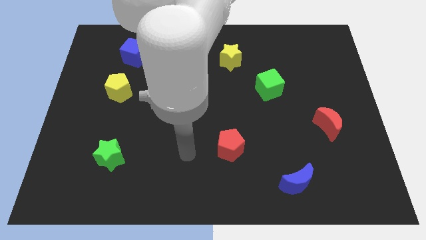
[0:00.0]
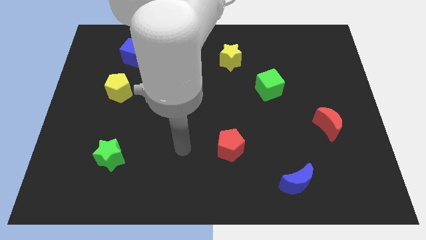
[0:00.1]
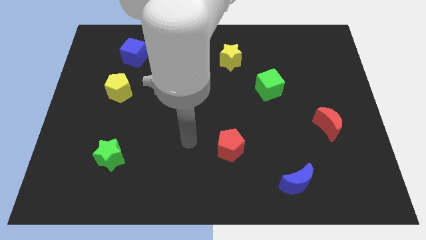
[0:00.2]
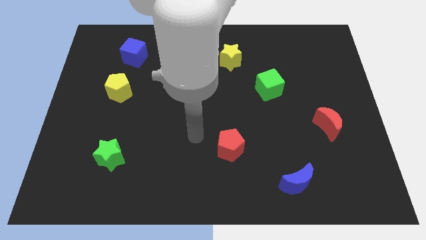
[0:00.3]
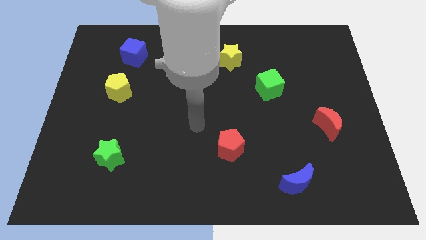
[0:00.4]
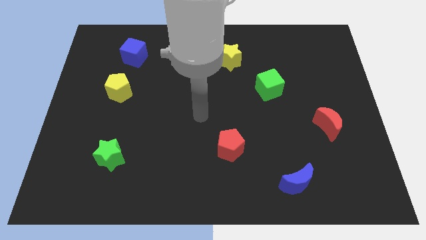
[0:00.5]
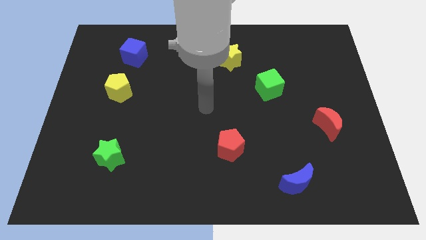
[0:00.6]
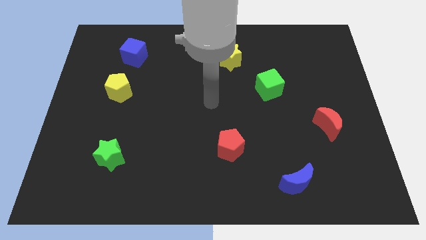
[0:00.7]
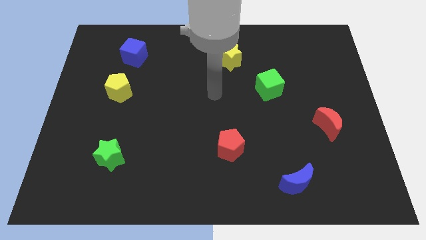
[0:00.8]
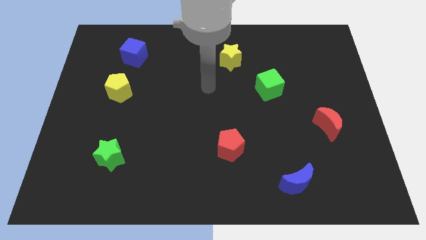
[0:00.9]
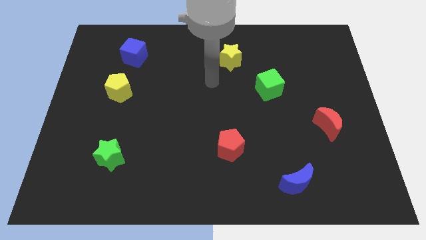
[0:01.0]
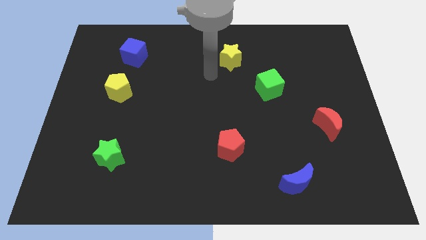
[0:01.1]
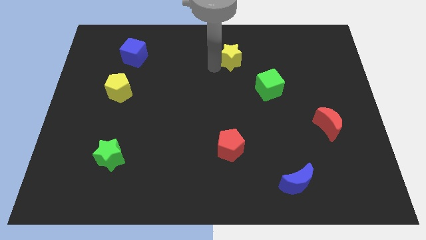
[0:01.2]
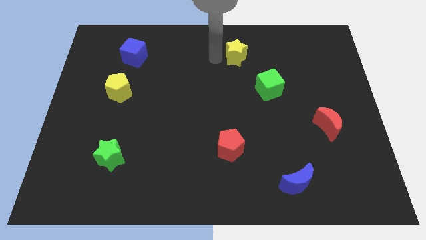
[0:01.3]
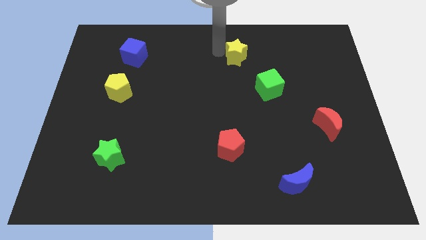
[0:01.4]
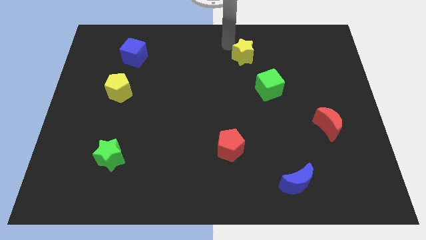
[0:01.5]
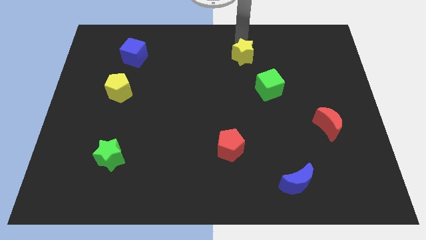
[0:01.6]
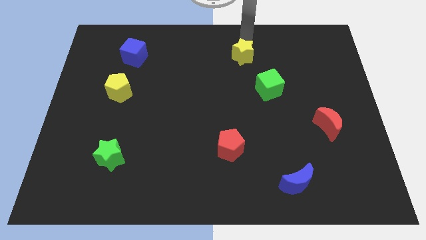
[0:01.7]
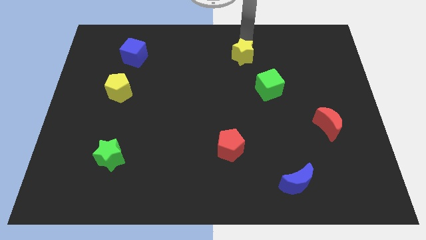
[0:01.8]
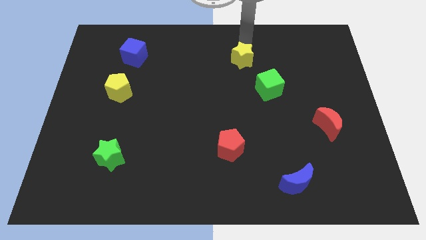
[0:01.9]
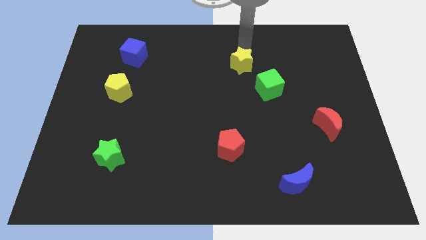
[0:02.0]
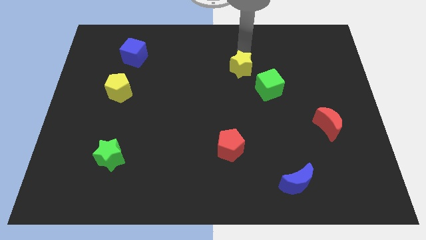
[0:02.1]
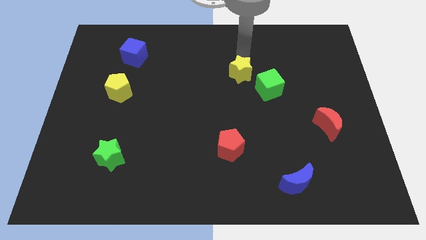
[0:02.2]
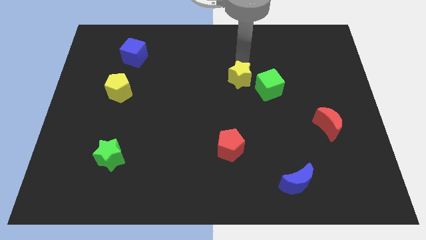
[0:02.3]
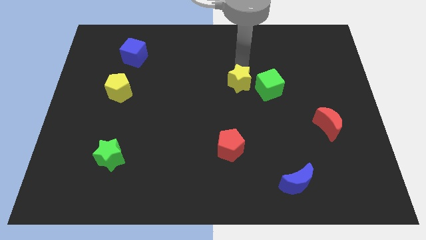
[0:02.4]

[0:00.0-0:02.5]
slide the yellow star down a little

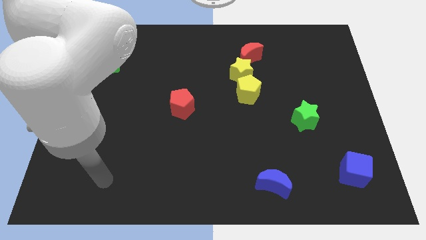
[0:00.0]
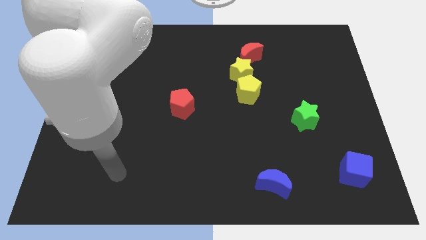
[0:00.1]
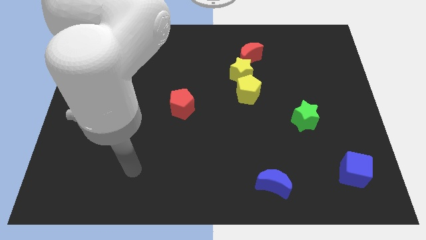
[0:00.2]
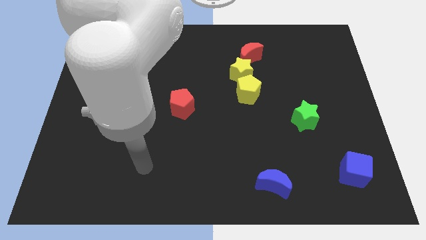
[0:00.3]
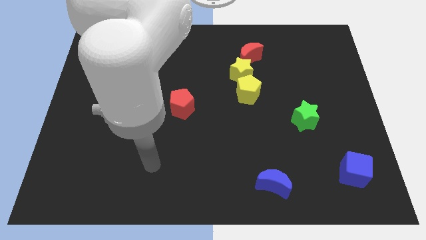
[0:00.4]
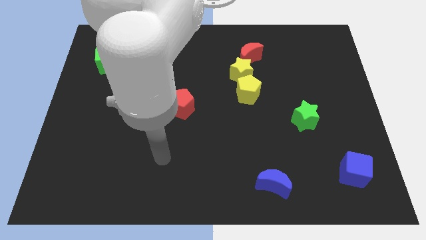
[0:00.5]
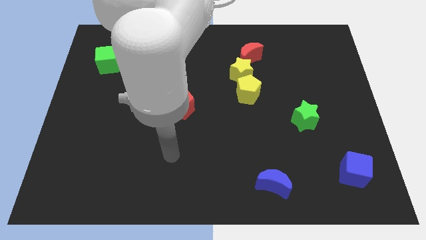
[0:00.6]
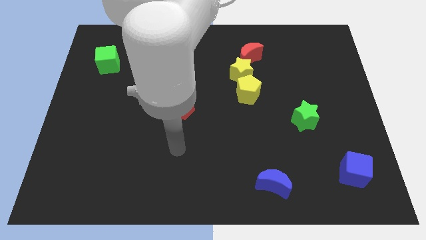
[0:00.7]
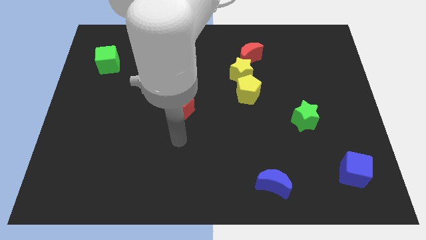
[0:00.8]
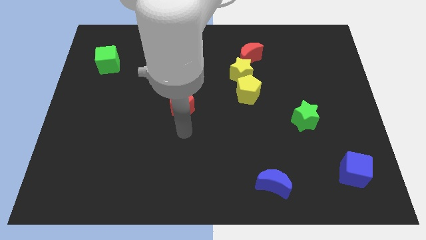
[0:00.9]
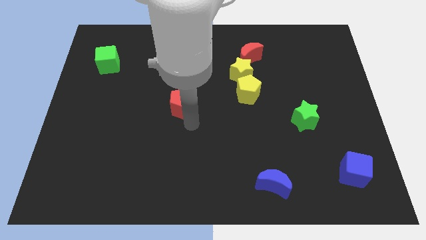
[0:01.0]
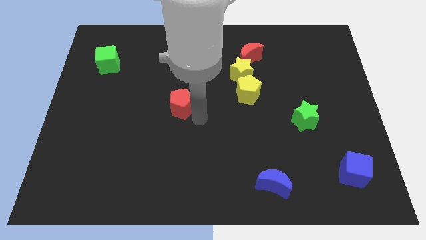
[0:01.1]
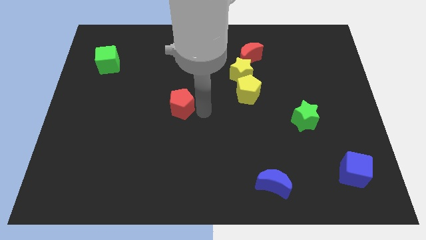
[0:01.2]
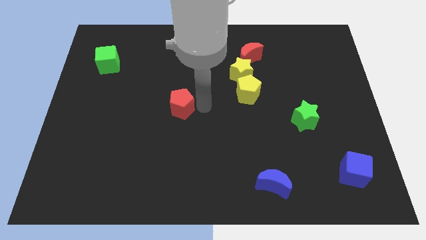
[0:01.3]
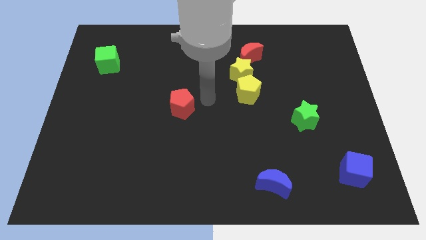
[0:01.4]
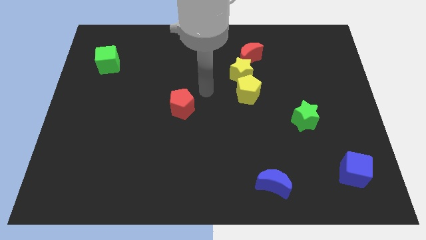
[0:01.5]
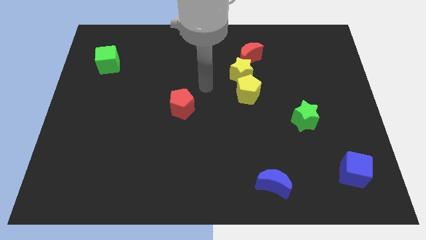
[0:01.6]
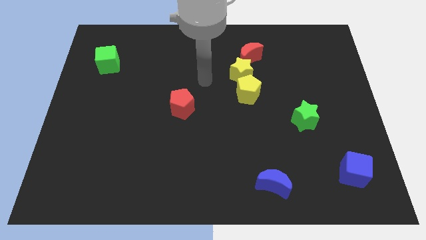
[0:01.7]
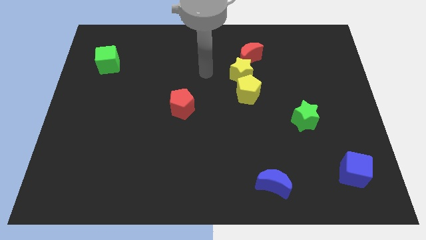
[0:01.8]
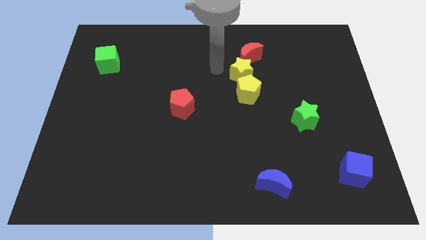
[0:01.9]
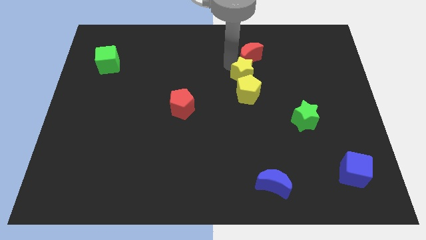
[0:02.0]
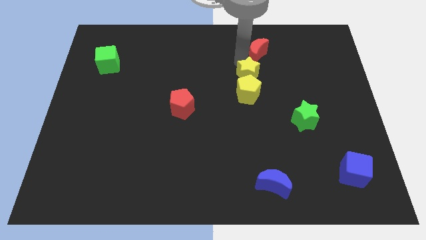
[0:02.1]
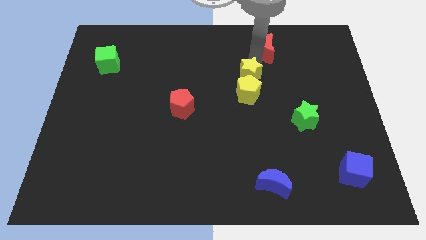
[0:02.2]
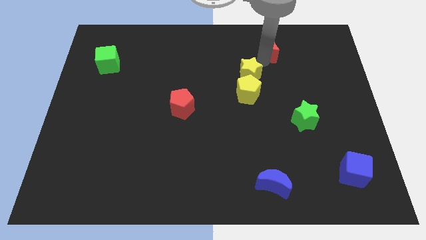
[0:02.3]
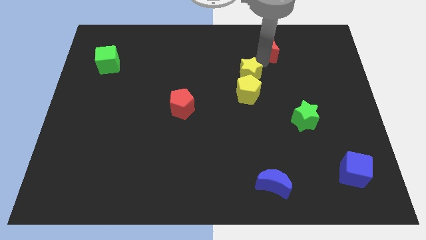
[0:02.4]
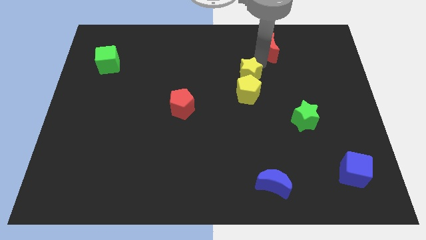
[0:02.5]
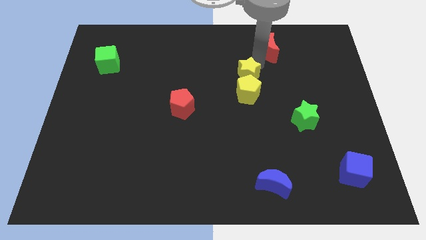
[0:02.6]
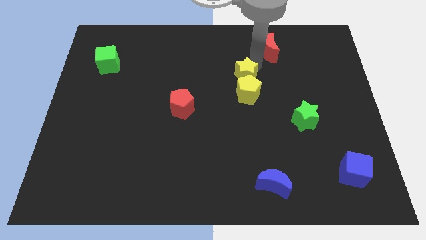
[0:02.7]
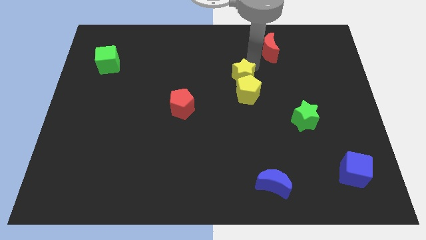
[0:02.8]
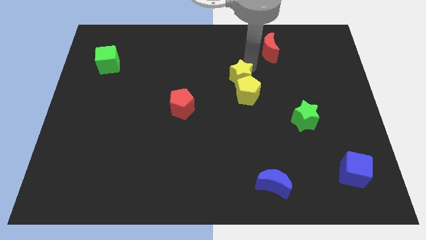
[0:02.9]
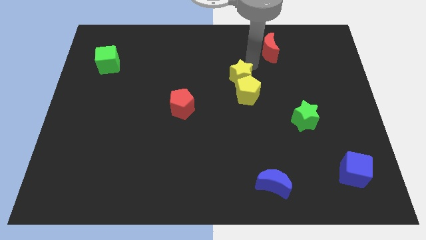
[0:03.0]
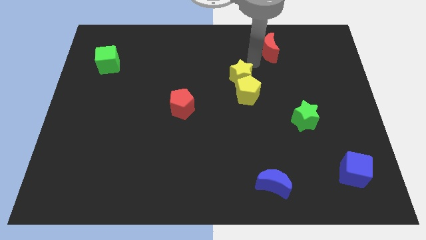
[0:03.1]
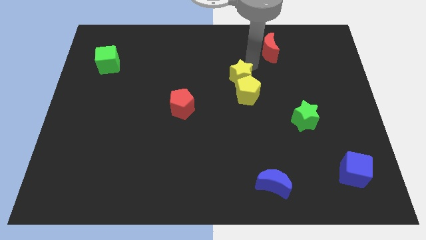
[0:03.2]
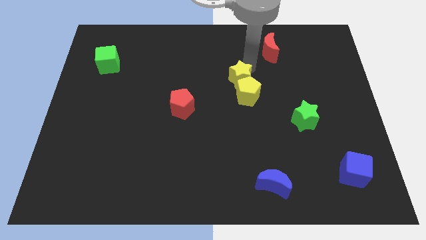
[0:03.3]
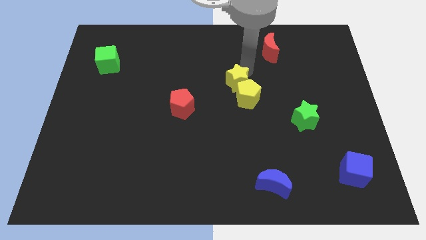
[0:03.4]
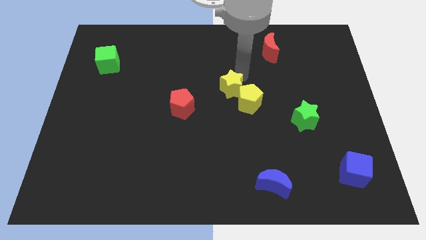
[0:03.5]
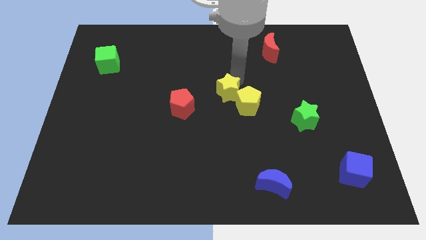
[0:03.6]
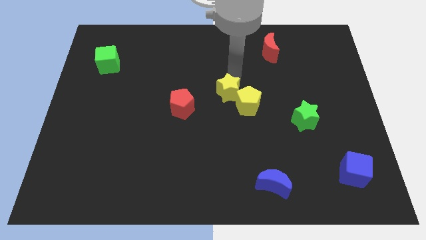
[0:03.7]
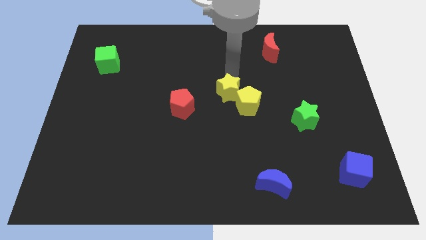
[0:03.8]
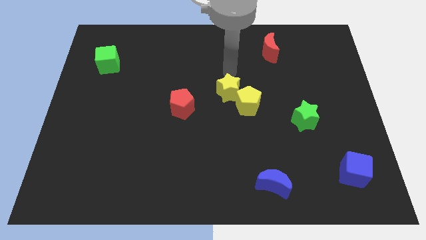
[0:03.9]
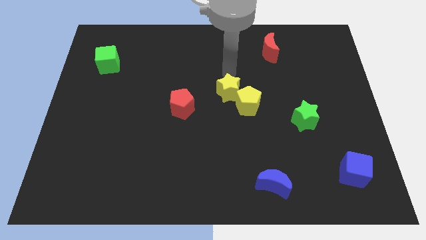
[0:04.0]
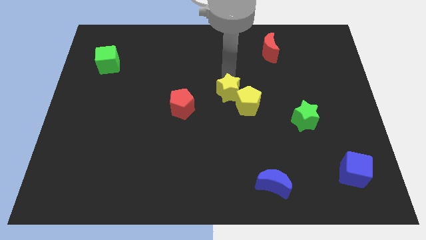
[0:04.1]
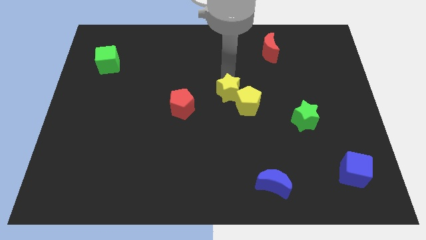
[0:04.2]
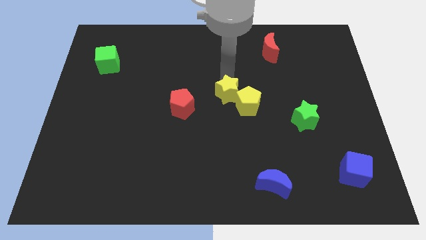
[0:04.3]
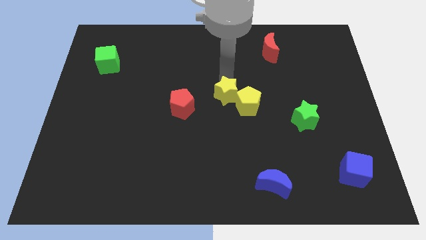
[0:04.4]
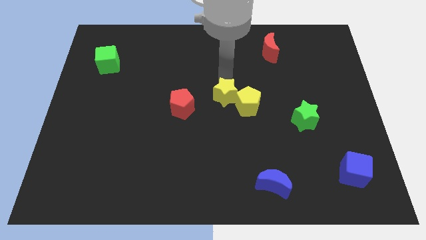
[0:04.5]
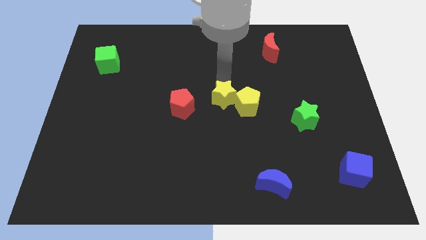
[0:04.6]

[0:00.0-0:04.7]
slide the yellow star downwards somewhat

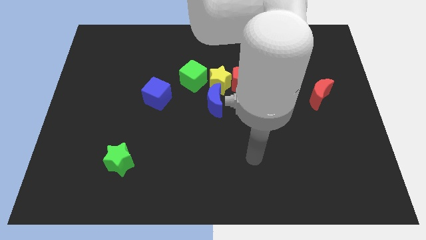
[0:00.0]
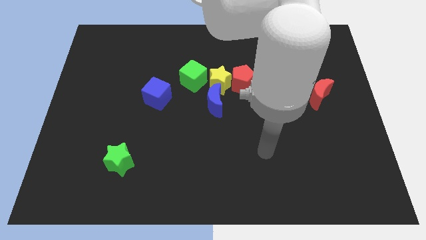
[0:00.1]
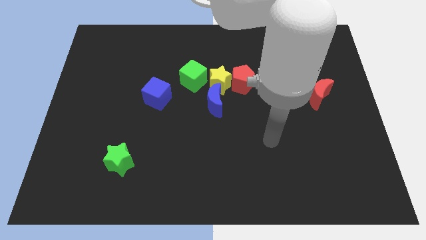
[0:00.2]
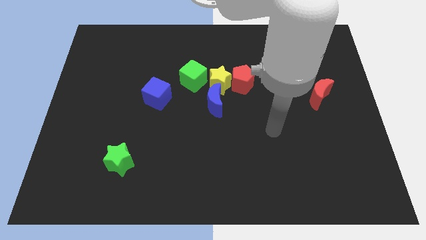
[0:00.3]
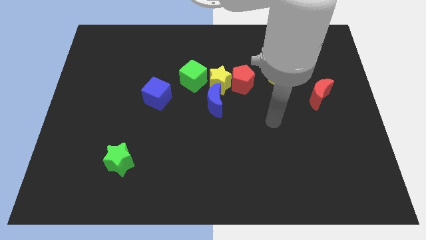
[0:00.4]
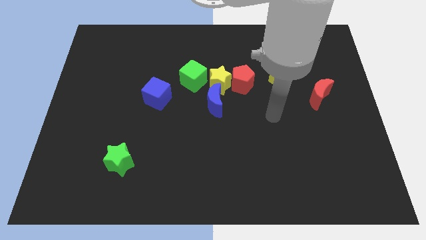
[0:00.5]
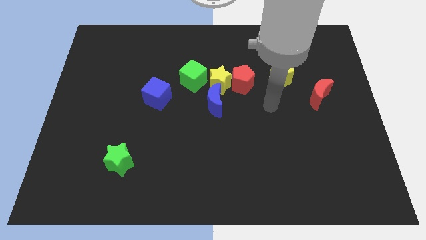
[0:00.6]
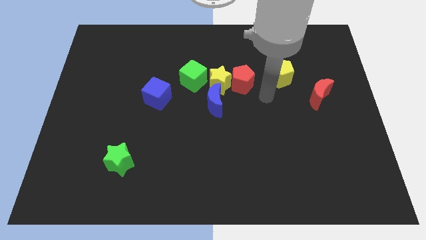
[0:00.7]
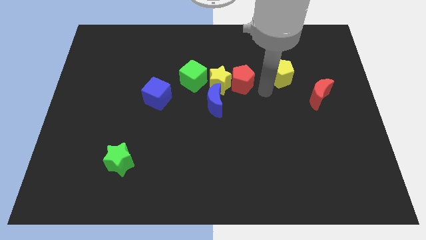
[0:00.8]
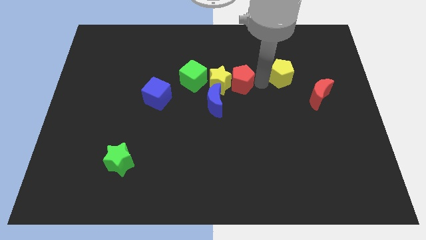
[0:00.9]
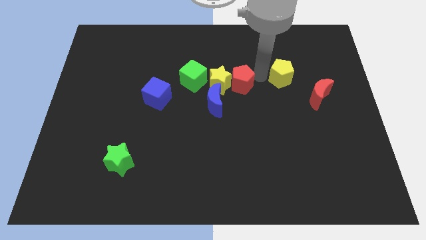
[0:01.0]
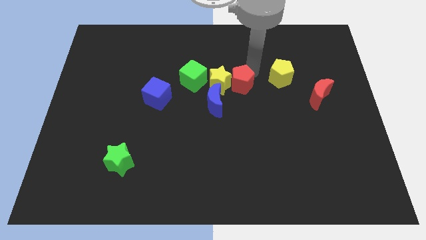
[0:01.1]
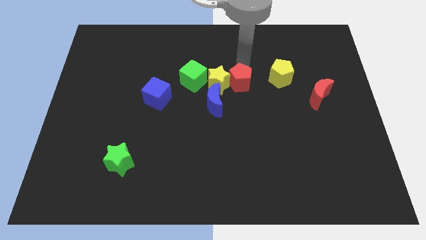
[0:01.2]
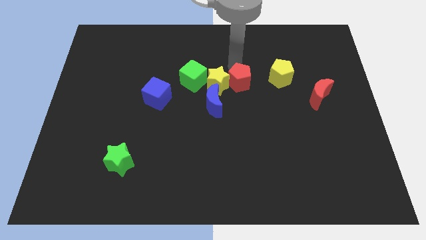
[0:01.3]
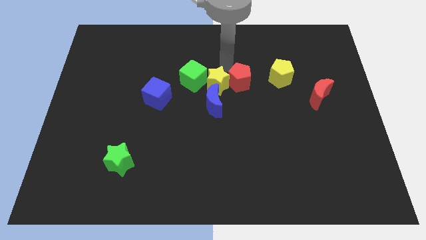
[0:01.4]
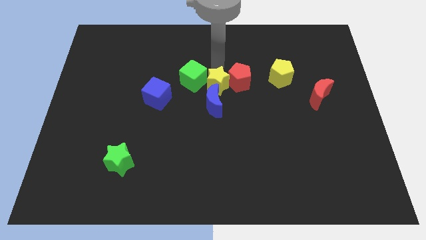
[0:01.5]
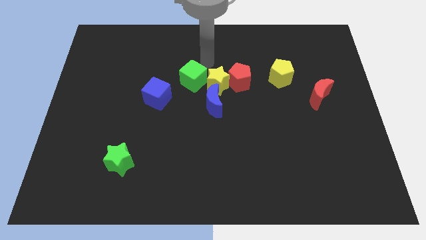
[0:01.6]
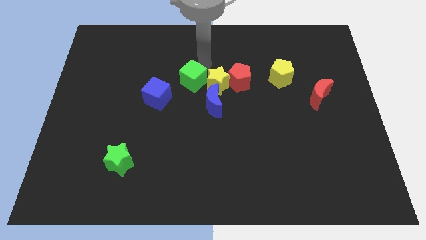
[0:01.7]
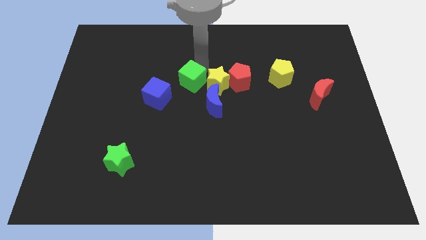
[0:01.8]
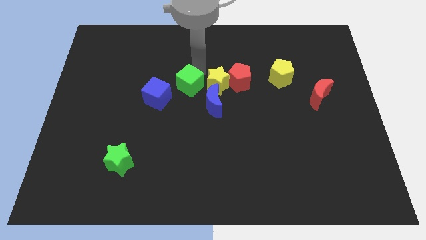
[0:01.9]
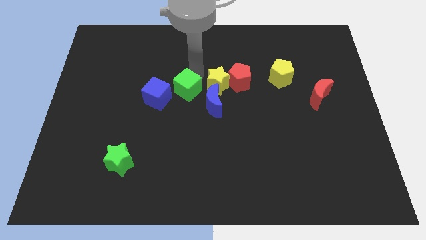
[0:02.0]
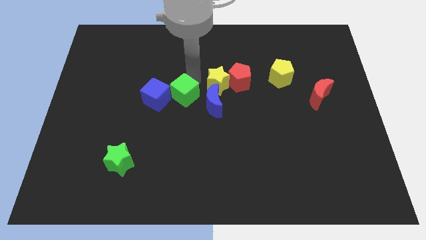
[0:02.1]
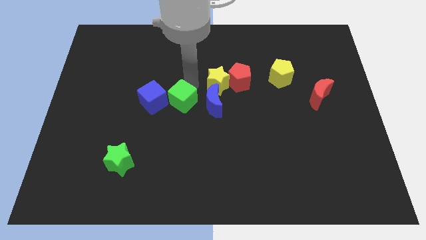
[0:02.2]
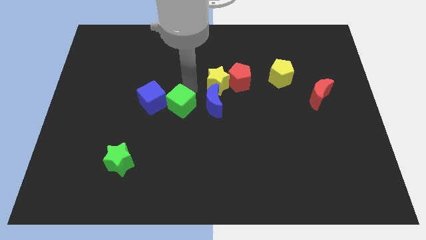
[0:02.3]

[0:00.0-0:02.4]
move the green cube downwards and then to the left a bit
